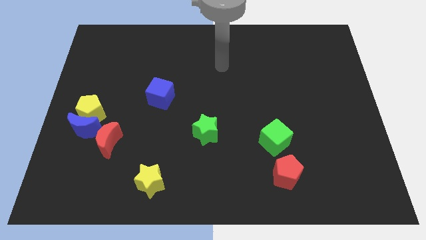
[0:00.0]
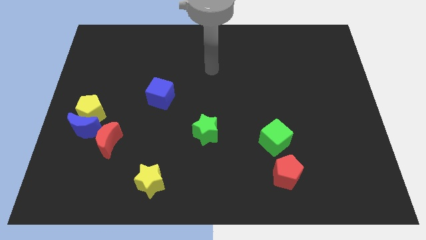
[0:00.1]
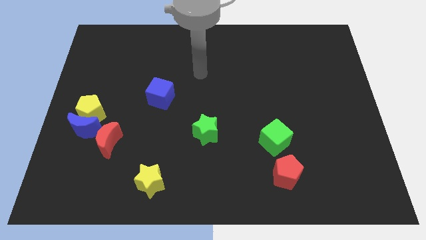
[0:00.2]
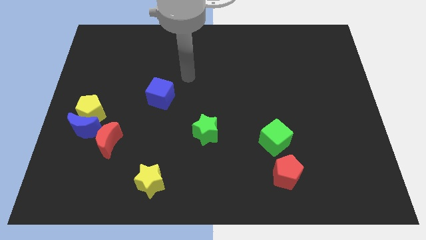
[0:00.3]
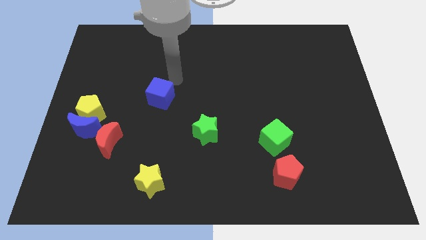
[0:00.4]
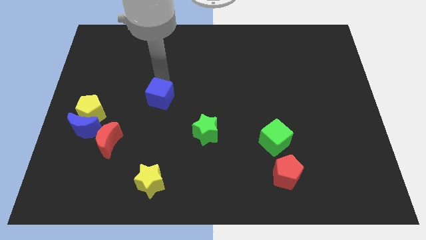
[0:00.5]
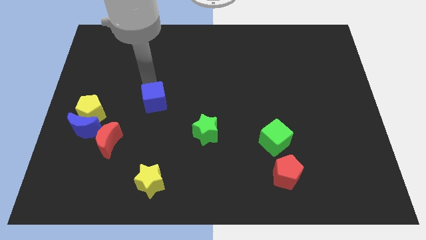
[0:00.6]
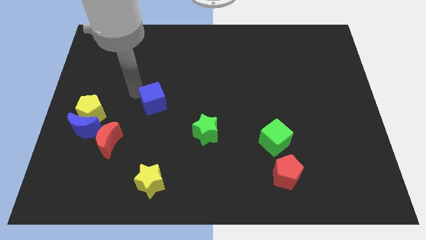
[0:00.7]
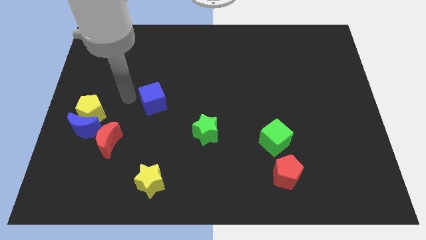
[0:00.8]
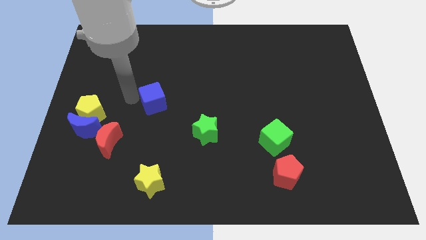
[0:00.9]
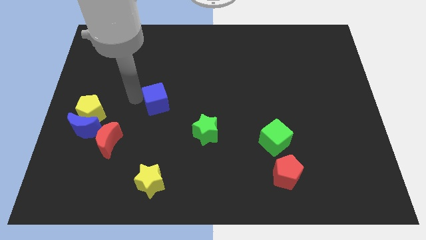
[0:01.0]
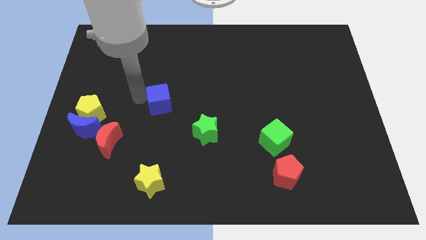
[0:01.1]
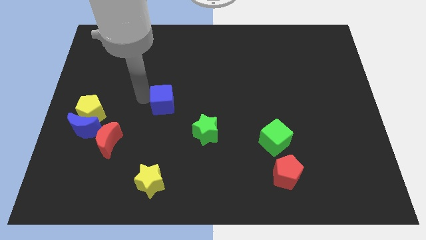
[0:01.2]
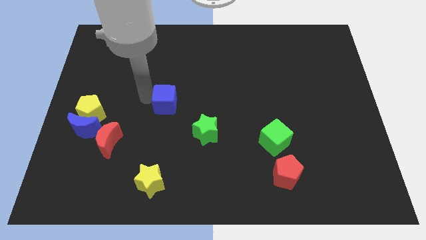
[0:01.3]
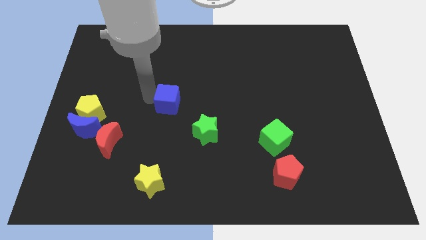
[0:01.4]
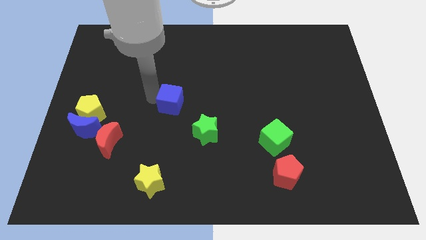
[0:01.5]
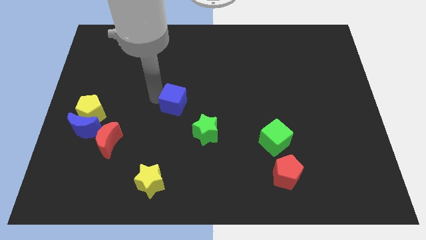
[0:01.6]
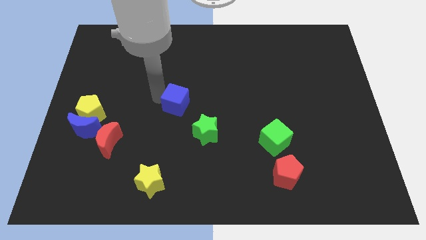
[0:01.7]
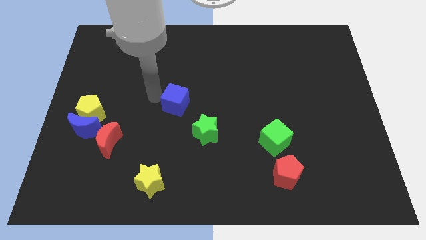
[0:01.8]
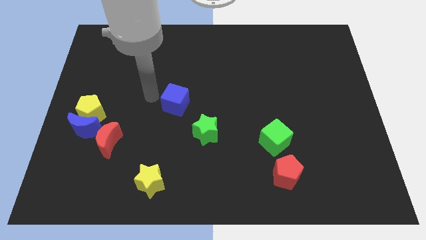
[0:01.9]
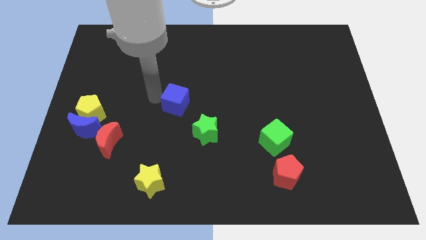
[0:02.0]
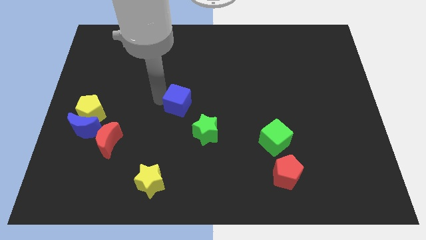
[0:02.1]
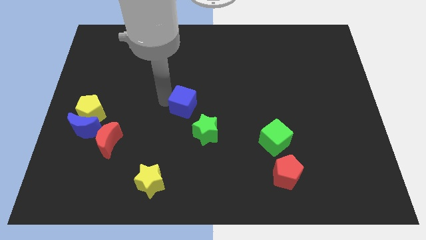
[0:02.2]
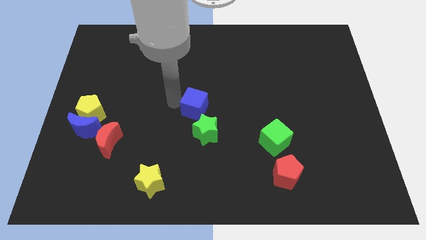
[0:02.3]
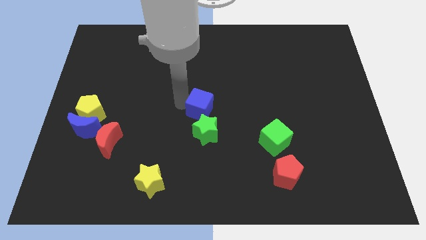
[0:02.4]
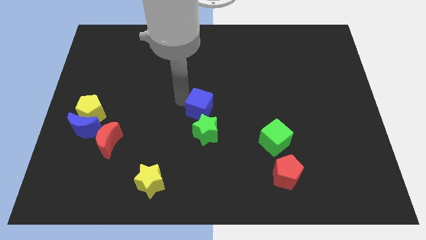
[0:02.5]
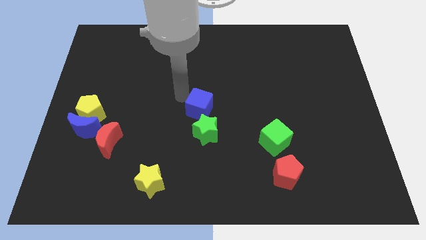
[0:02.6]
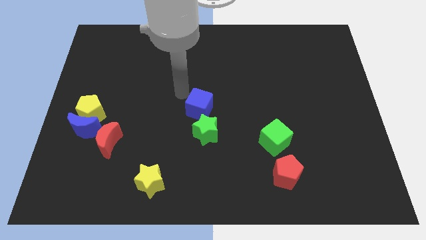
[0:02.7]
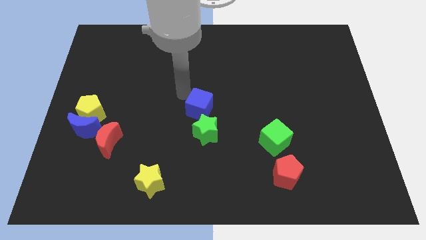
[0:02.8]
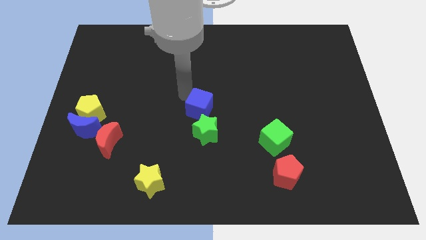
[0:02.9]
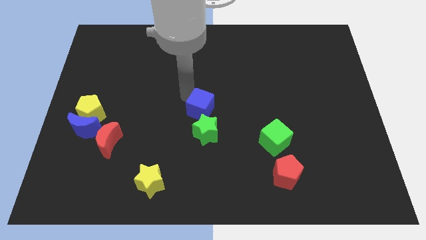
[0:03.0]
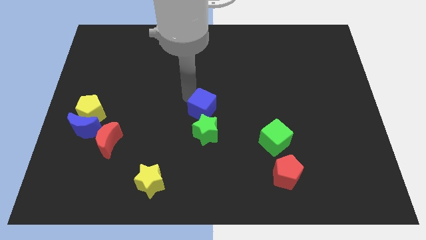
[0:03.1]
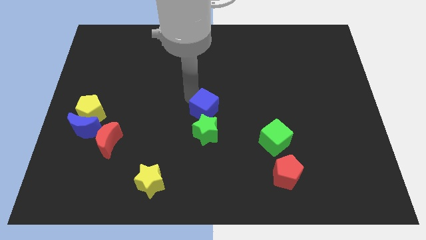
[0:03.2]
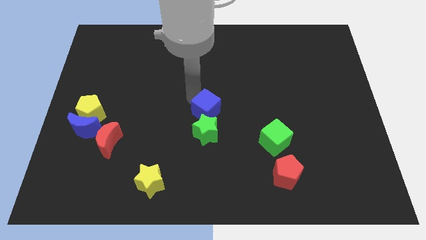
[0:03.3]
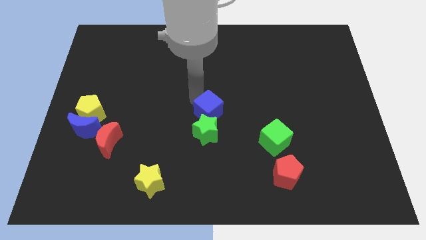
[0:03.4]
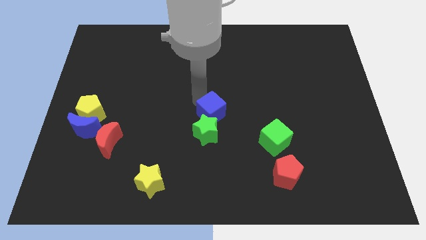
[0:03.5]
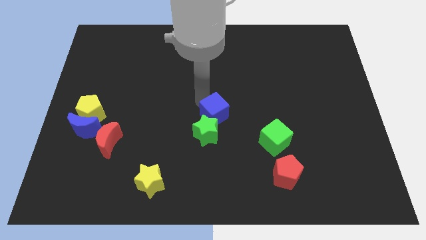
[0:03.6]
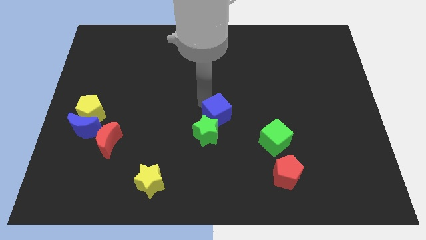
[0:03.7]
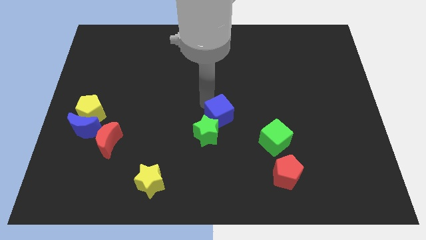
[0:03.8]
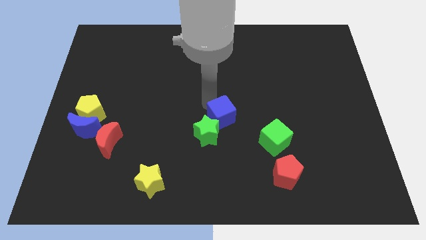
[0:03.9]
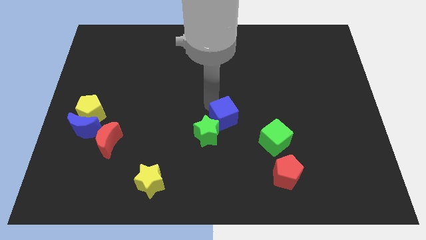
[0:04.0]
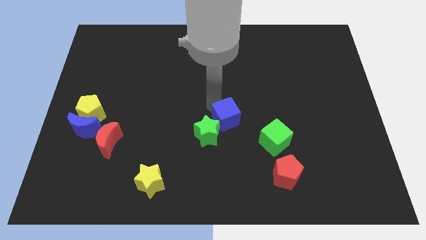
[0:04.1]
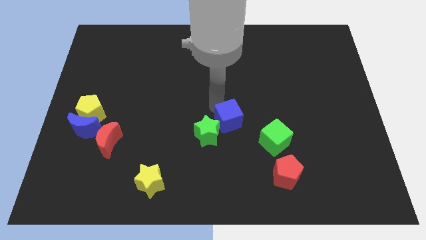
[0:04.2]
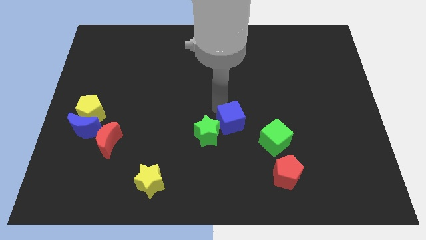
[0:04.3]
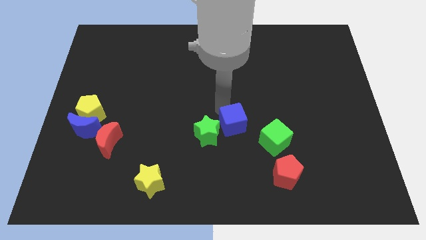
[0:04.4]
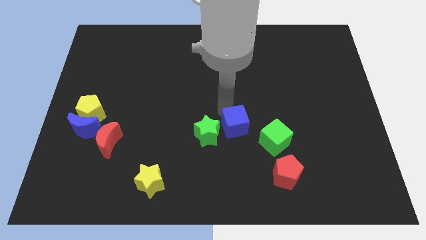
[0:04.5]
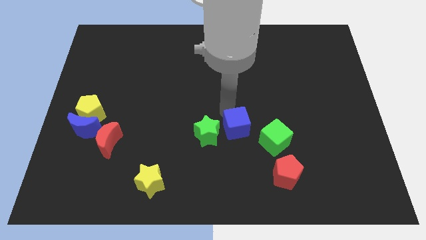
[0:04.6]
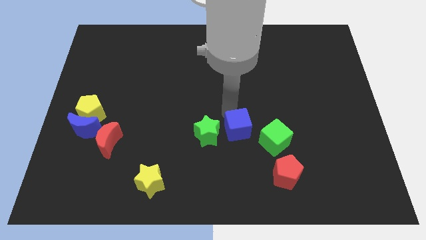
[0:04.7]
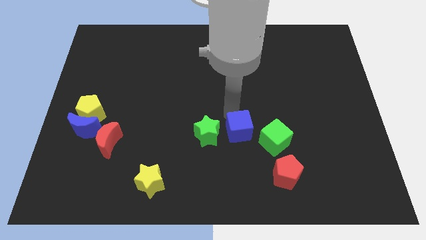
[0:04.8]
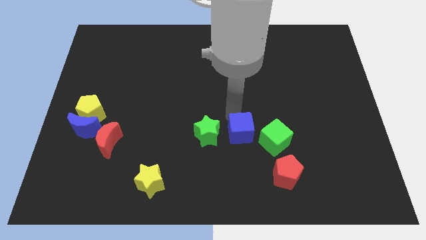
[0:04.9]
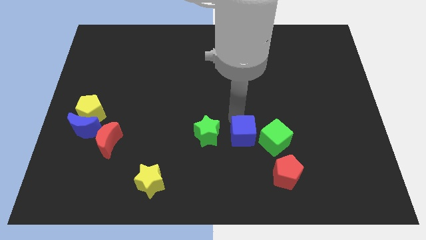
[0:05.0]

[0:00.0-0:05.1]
slide the blue cube downwards and to the right

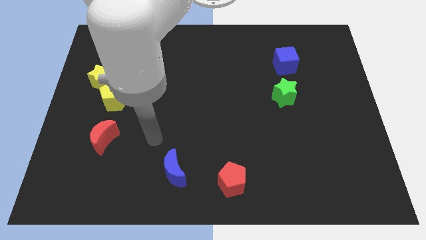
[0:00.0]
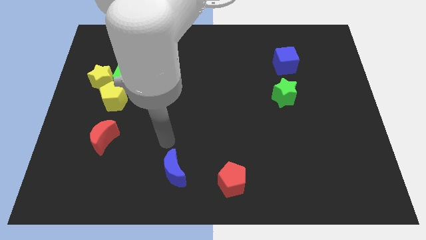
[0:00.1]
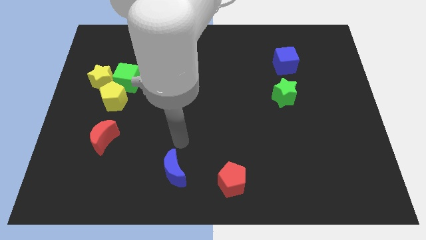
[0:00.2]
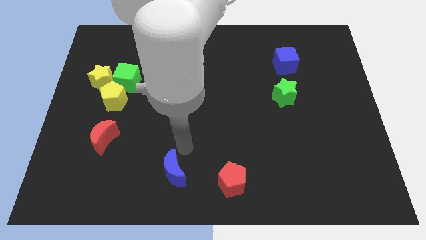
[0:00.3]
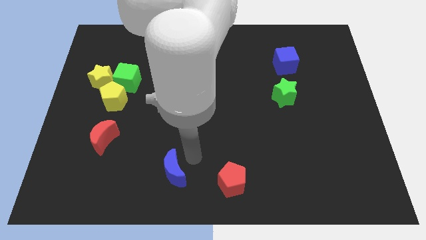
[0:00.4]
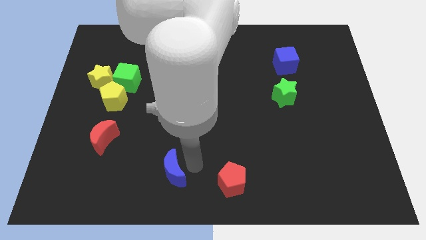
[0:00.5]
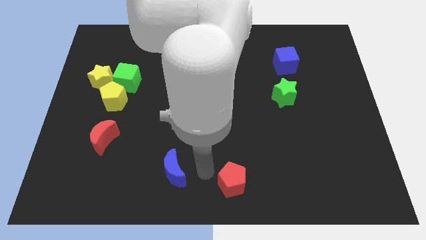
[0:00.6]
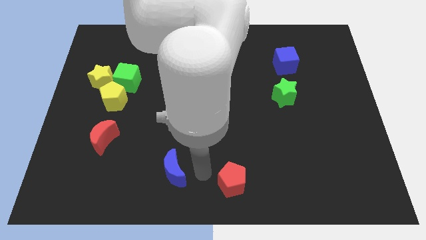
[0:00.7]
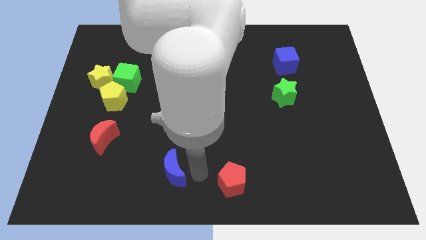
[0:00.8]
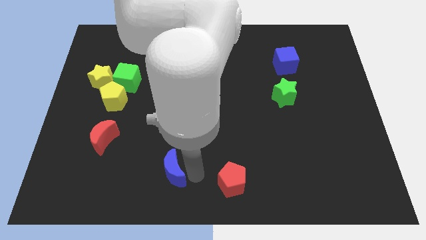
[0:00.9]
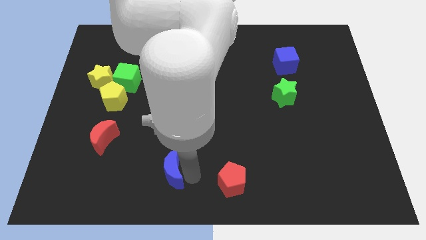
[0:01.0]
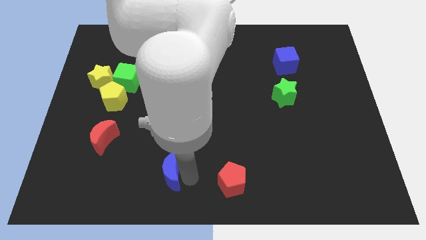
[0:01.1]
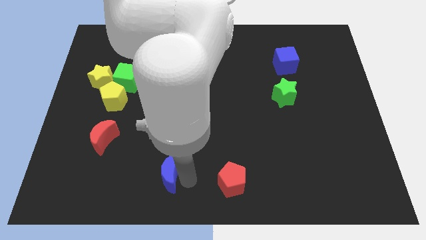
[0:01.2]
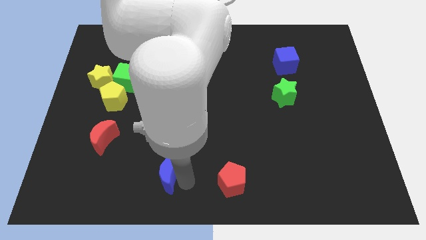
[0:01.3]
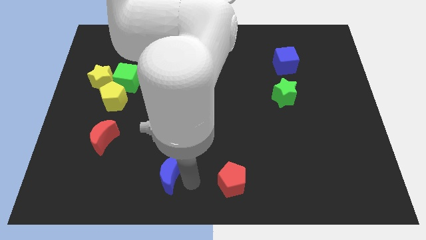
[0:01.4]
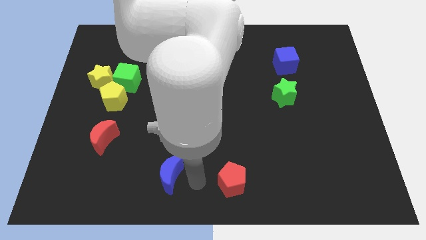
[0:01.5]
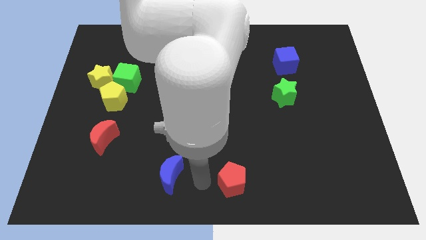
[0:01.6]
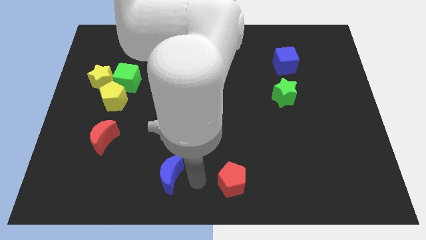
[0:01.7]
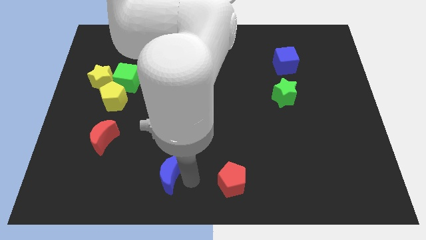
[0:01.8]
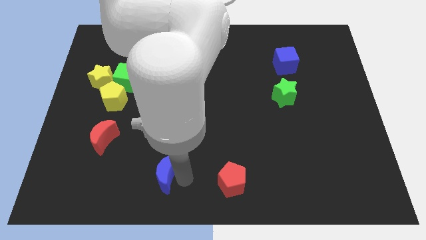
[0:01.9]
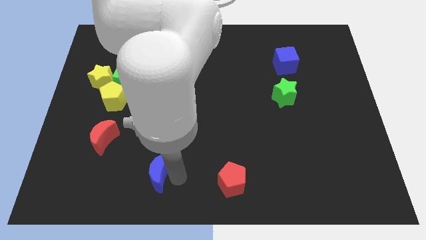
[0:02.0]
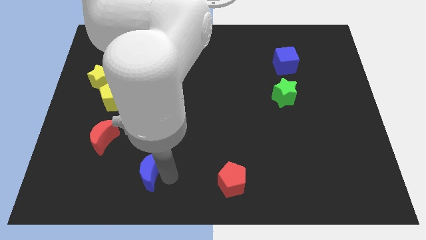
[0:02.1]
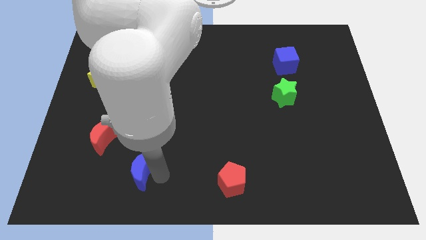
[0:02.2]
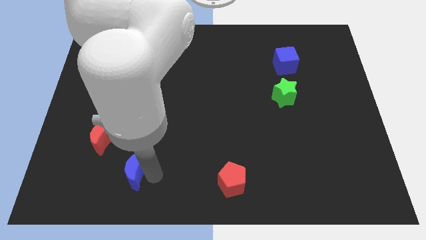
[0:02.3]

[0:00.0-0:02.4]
slightly slide the blue moon to the left

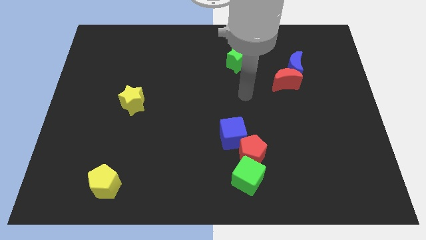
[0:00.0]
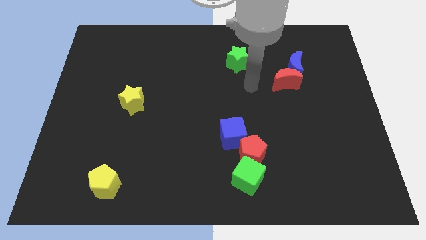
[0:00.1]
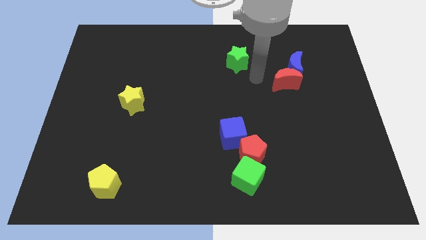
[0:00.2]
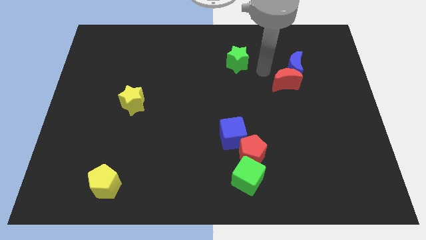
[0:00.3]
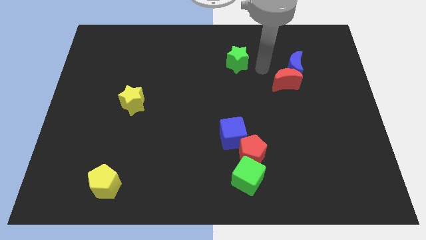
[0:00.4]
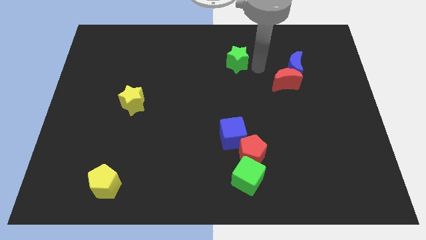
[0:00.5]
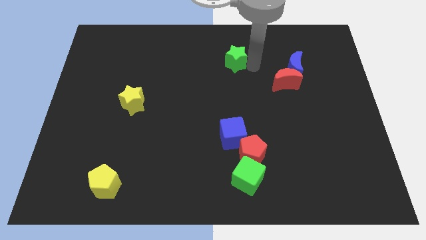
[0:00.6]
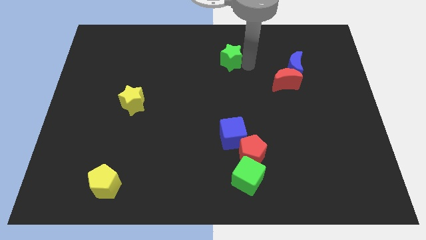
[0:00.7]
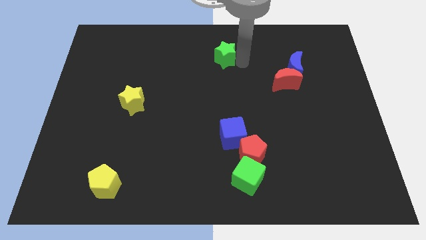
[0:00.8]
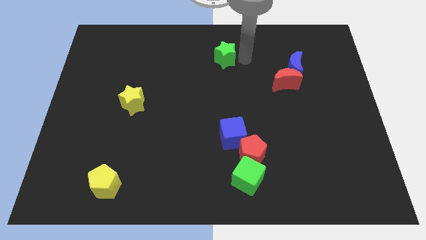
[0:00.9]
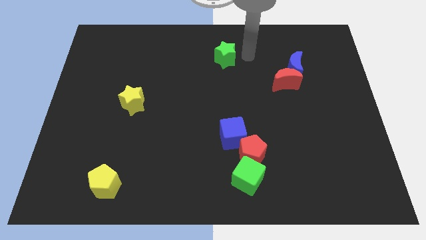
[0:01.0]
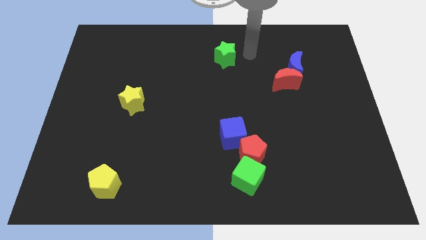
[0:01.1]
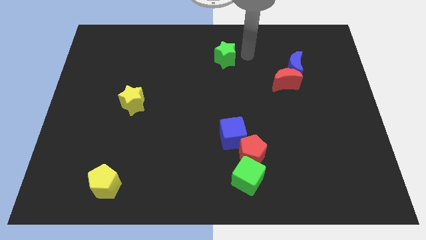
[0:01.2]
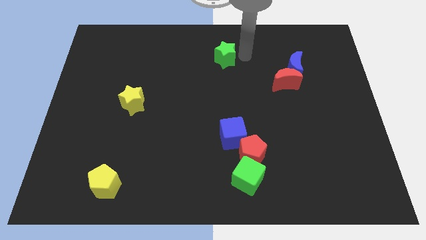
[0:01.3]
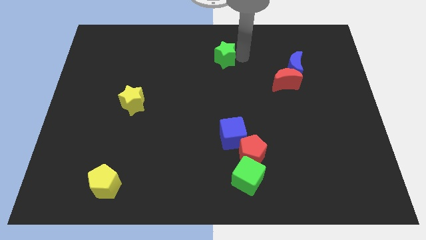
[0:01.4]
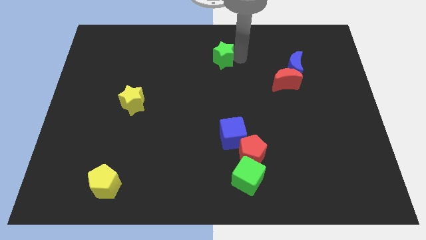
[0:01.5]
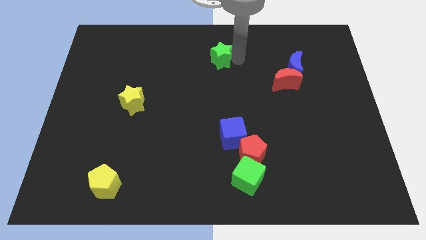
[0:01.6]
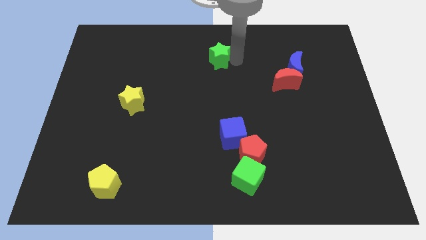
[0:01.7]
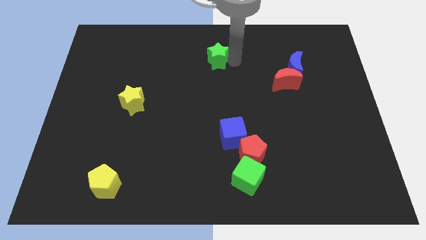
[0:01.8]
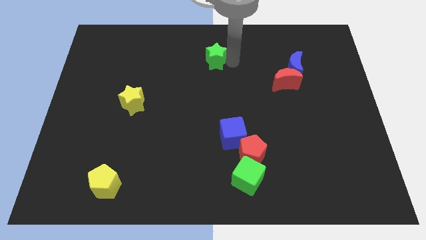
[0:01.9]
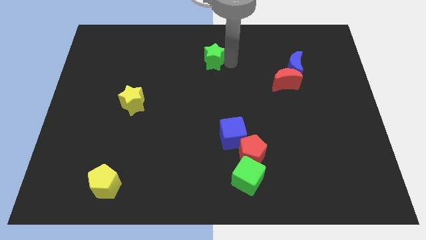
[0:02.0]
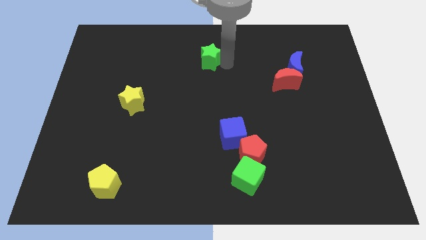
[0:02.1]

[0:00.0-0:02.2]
slightly push the green star to the left
